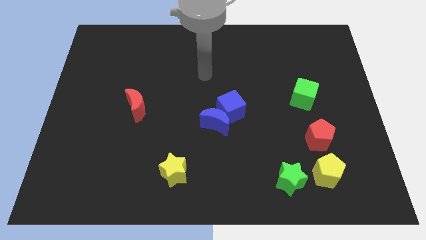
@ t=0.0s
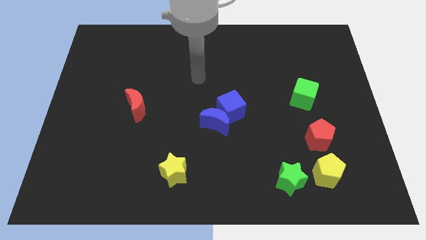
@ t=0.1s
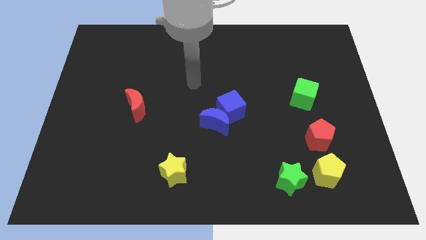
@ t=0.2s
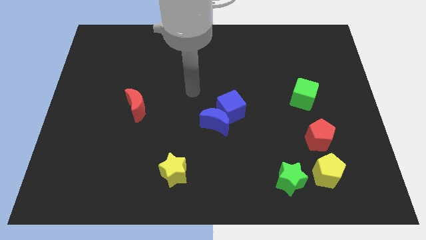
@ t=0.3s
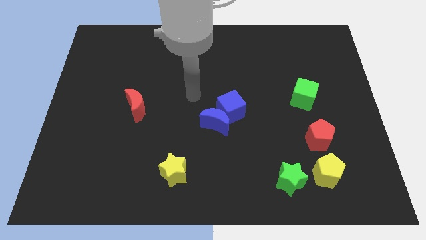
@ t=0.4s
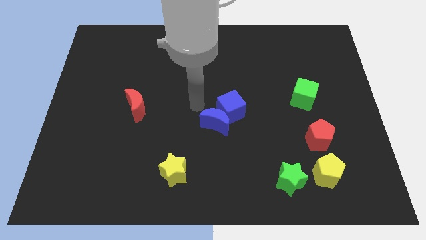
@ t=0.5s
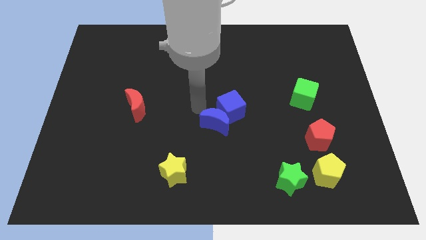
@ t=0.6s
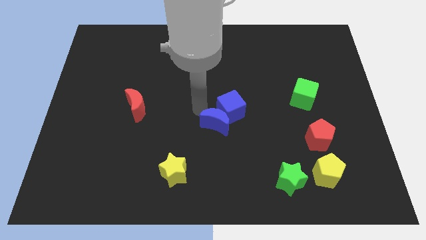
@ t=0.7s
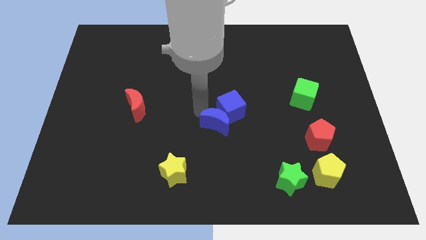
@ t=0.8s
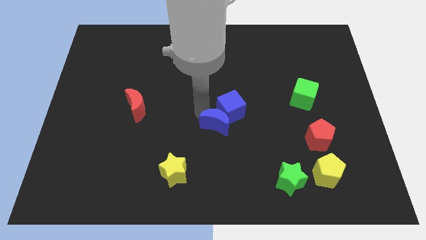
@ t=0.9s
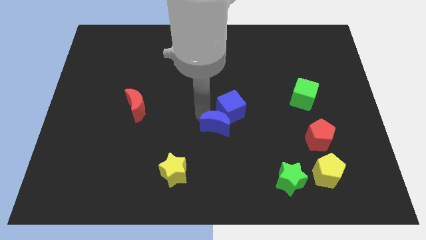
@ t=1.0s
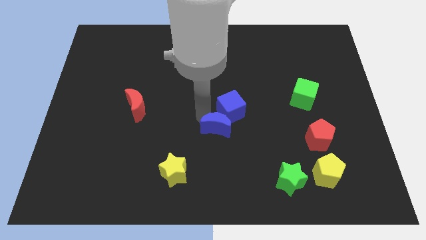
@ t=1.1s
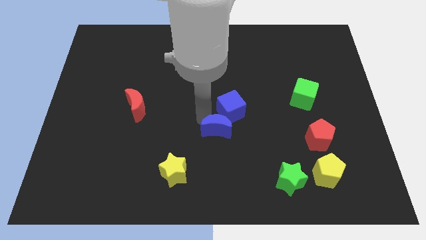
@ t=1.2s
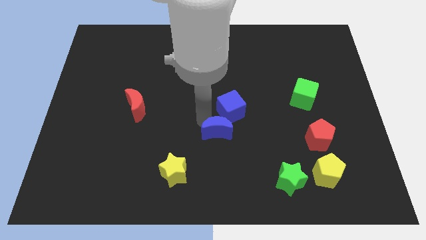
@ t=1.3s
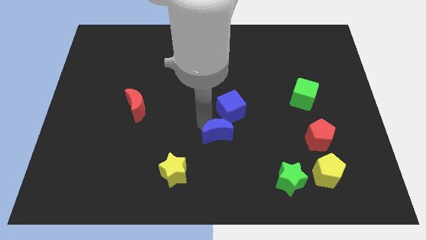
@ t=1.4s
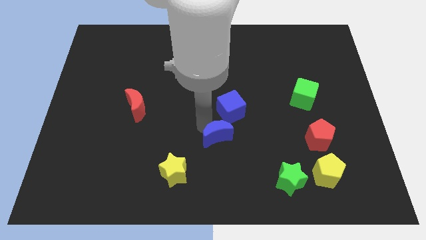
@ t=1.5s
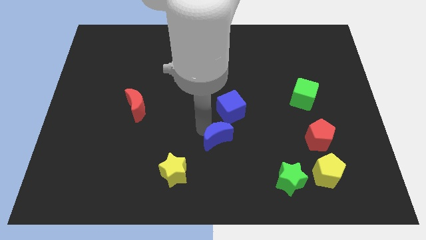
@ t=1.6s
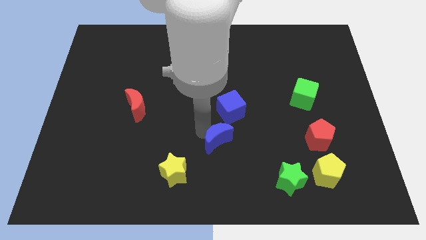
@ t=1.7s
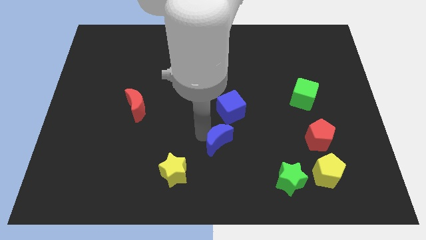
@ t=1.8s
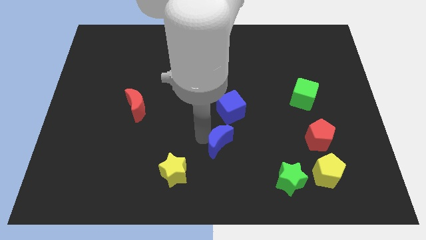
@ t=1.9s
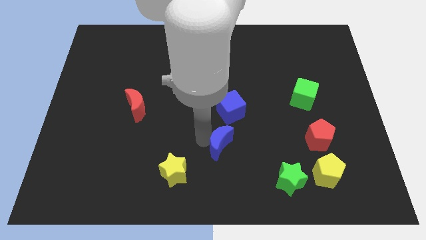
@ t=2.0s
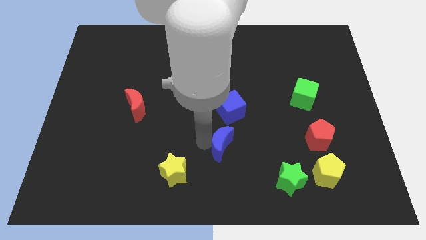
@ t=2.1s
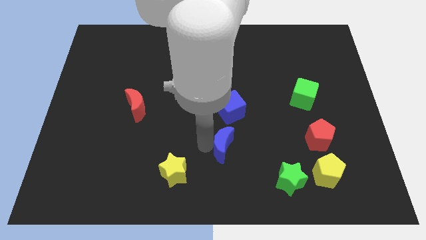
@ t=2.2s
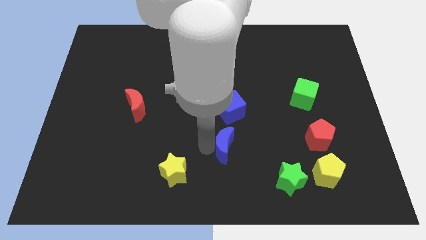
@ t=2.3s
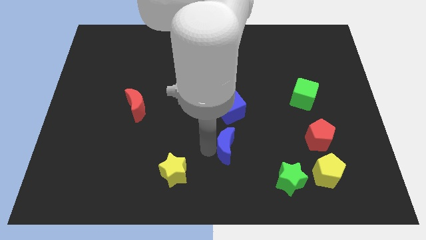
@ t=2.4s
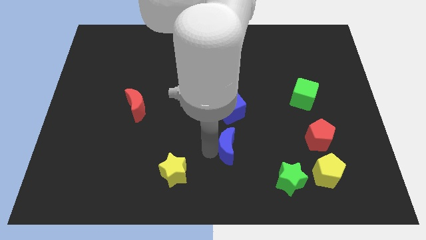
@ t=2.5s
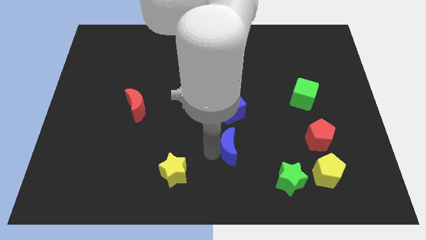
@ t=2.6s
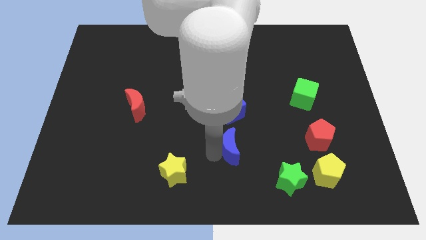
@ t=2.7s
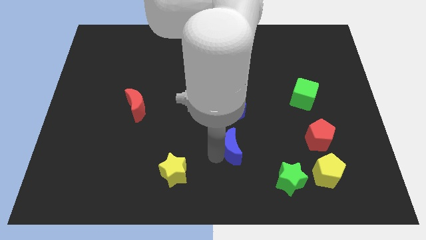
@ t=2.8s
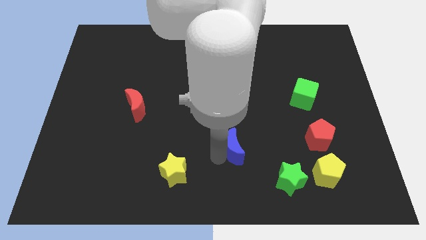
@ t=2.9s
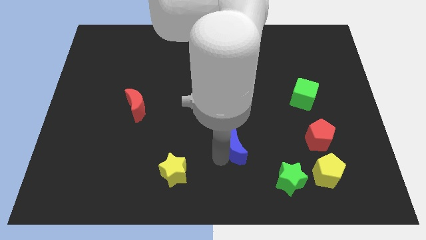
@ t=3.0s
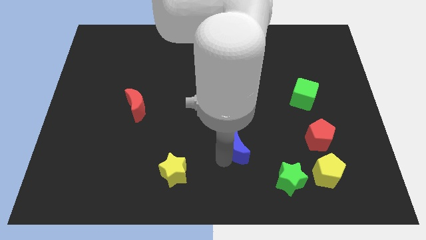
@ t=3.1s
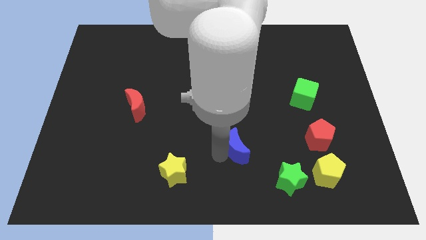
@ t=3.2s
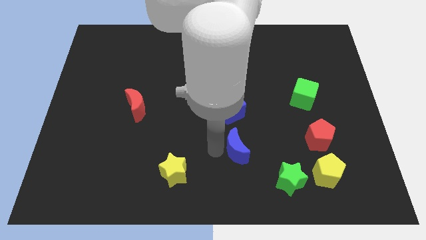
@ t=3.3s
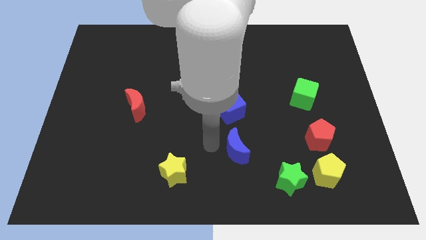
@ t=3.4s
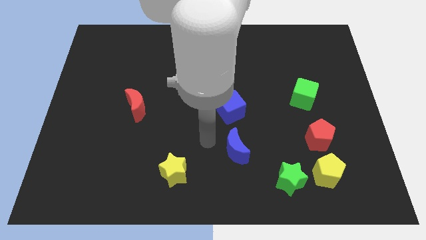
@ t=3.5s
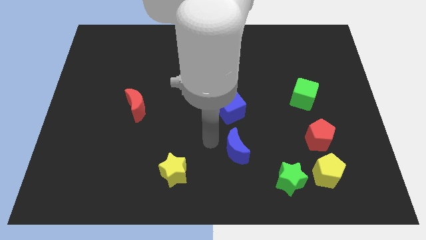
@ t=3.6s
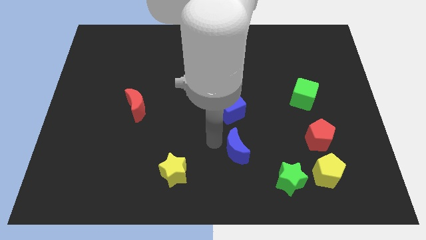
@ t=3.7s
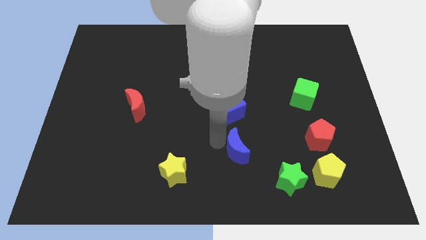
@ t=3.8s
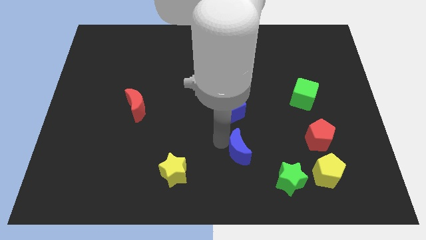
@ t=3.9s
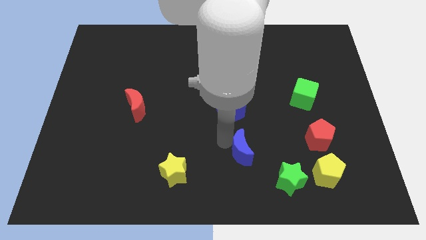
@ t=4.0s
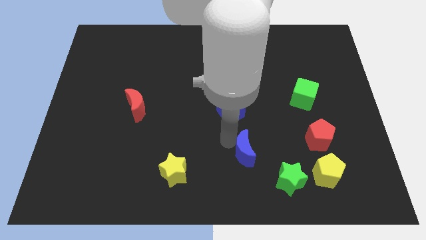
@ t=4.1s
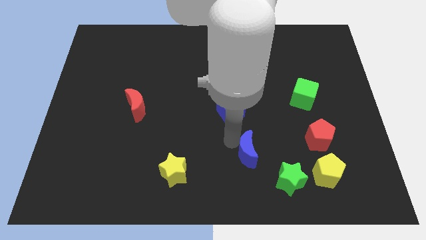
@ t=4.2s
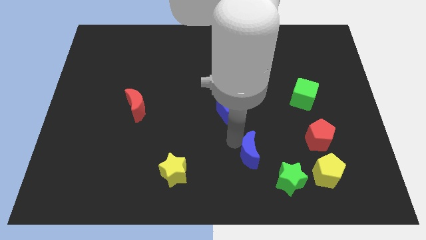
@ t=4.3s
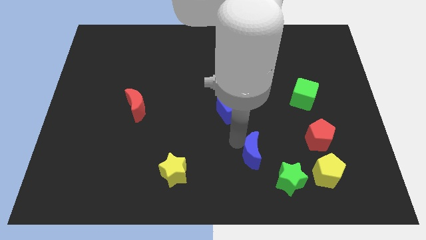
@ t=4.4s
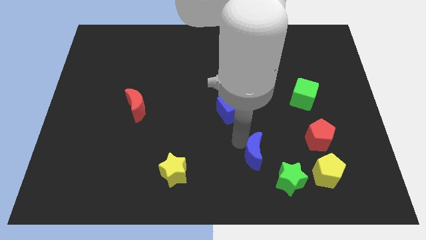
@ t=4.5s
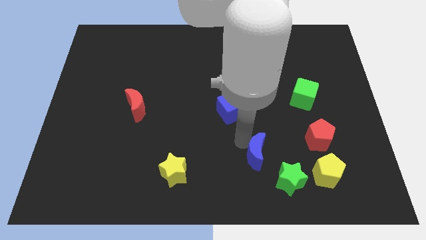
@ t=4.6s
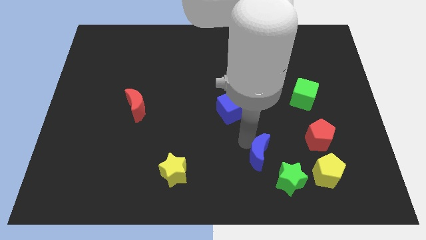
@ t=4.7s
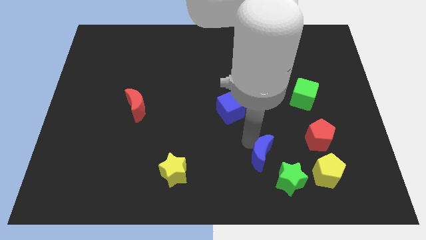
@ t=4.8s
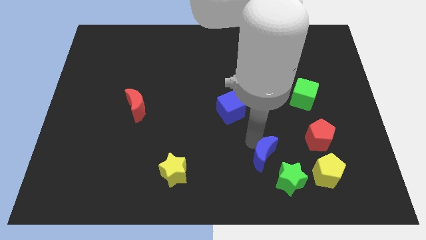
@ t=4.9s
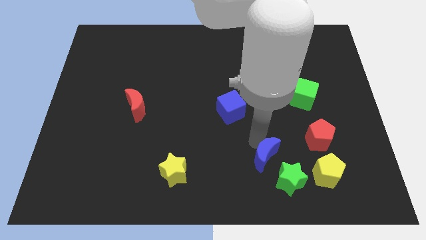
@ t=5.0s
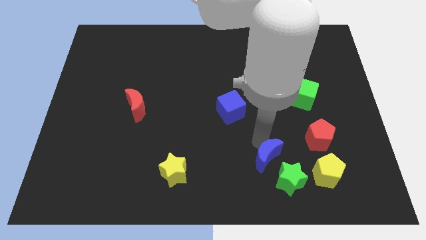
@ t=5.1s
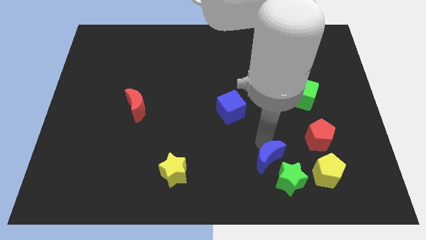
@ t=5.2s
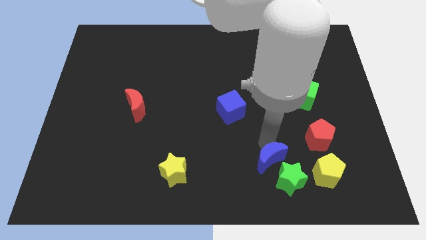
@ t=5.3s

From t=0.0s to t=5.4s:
put the blue moon next to the green star
